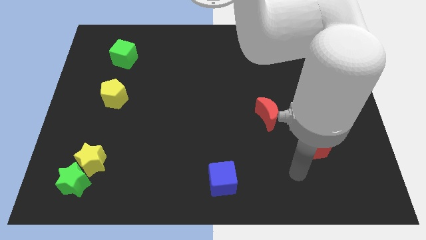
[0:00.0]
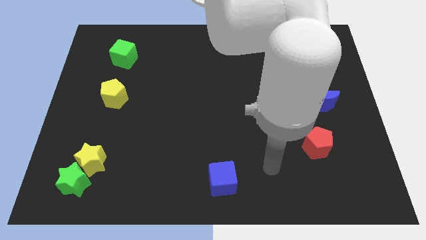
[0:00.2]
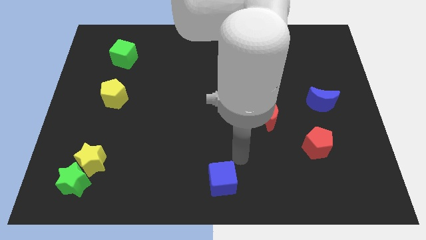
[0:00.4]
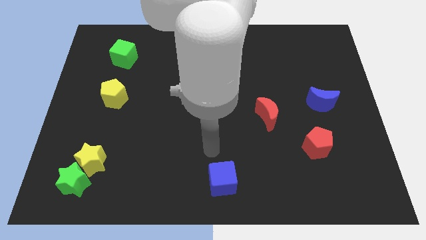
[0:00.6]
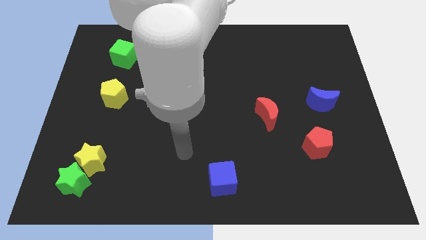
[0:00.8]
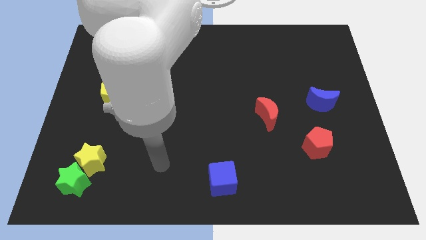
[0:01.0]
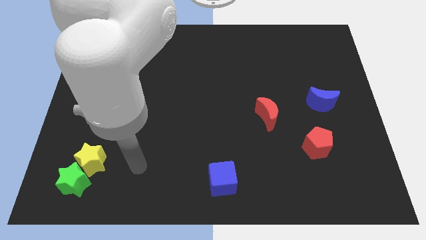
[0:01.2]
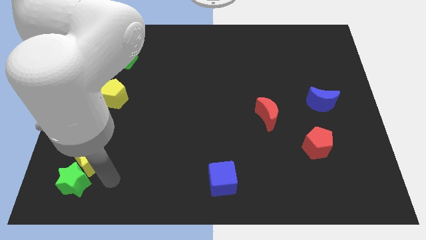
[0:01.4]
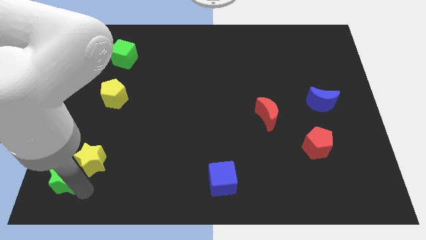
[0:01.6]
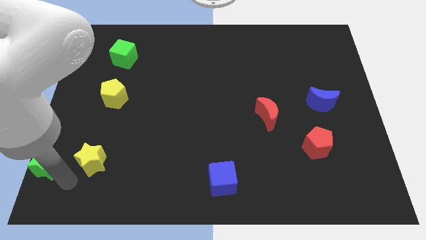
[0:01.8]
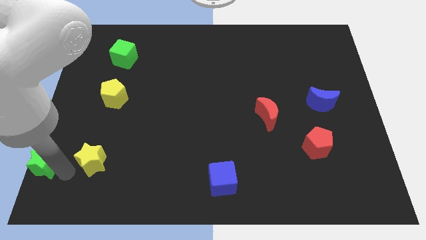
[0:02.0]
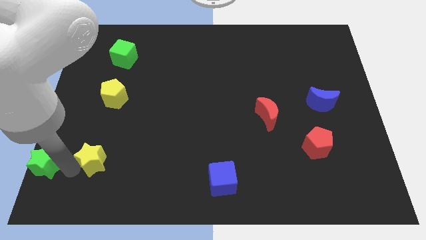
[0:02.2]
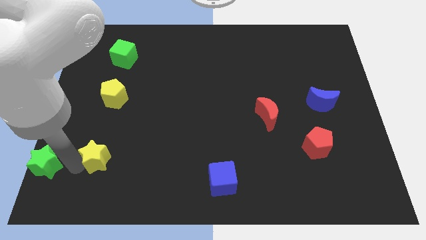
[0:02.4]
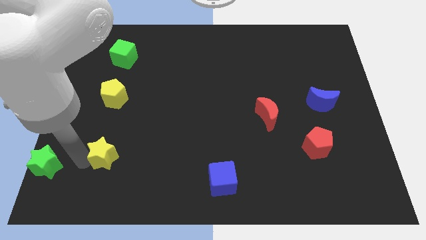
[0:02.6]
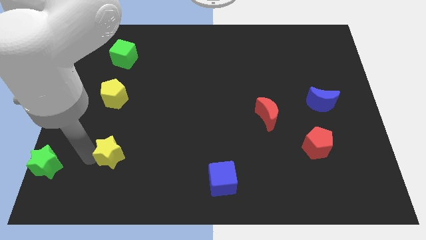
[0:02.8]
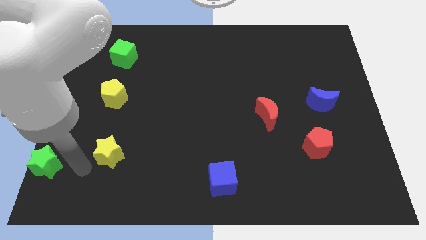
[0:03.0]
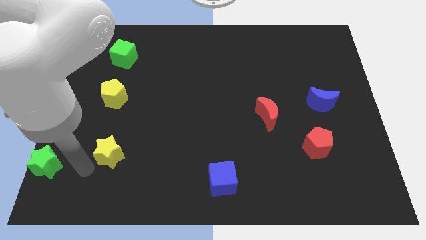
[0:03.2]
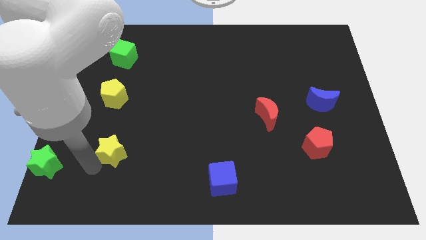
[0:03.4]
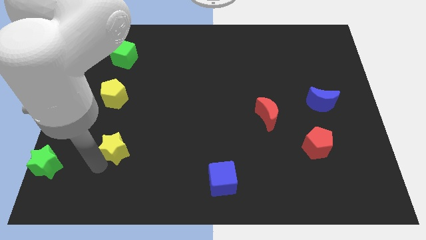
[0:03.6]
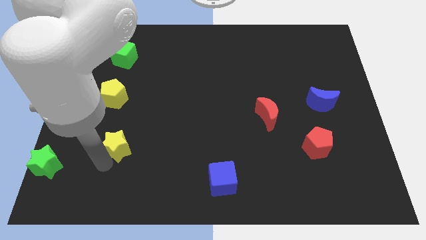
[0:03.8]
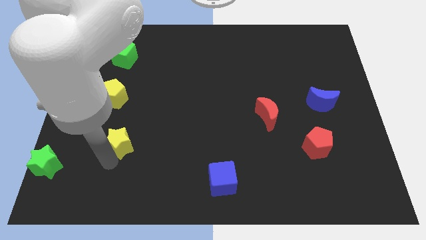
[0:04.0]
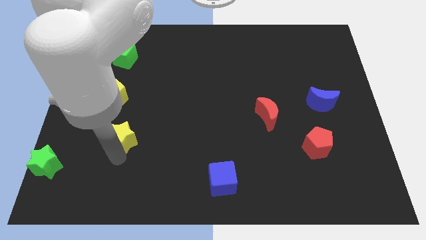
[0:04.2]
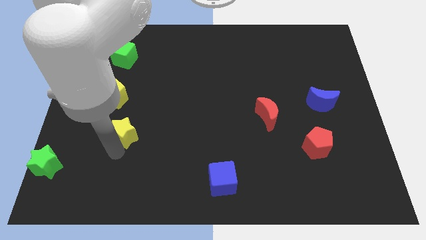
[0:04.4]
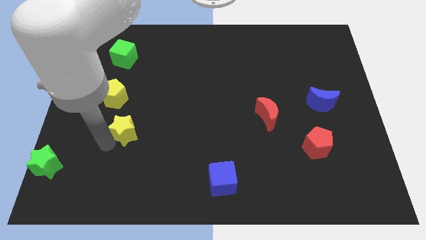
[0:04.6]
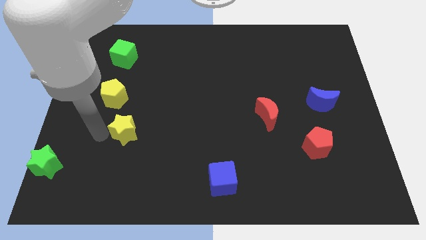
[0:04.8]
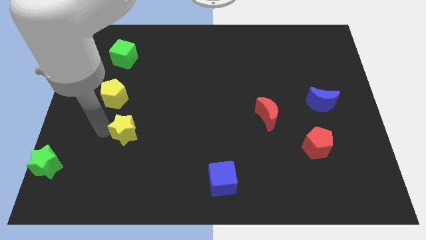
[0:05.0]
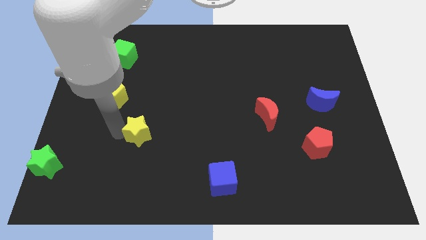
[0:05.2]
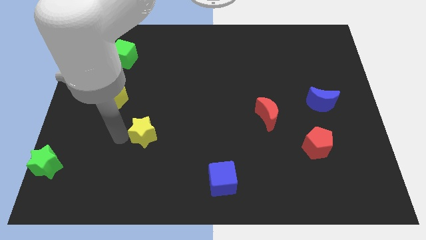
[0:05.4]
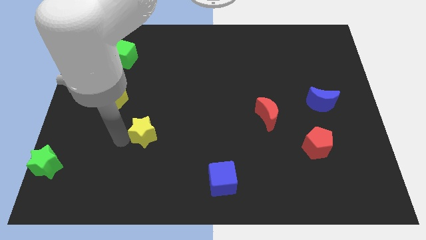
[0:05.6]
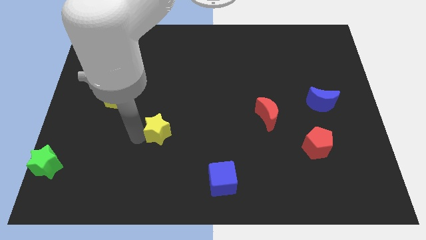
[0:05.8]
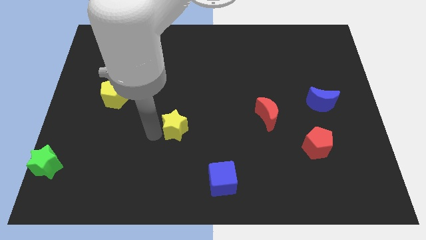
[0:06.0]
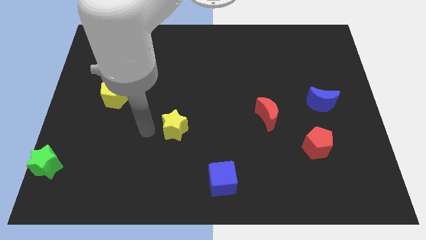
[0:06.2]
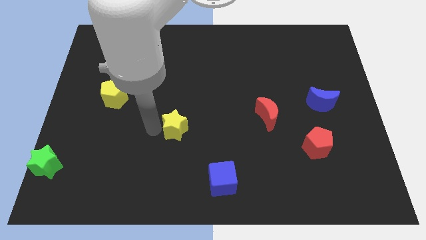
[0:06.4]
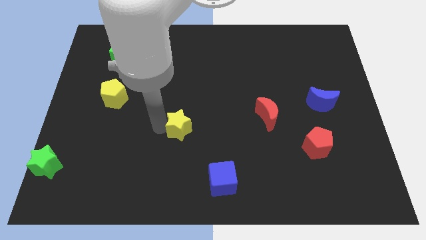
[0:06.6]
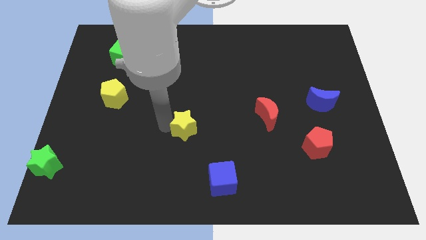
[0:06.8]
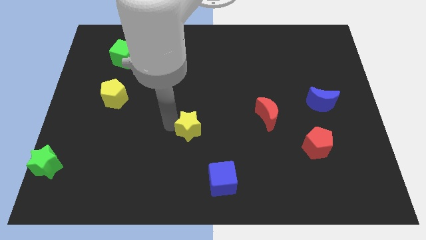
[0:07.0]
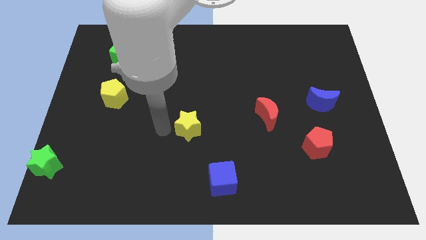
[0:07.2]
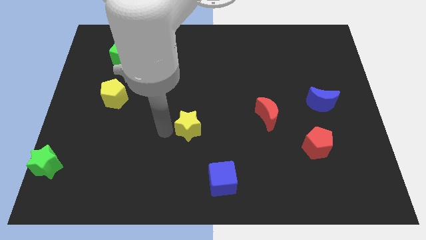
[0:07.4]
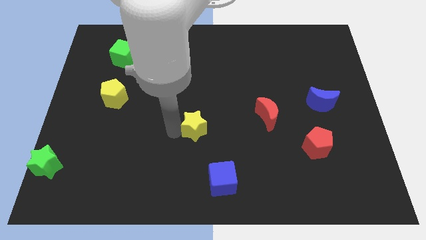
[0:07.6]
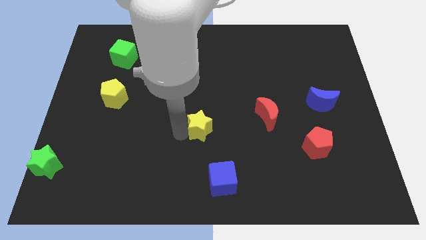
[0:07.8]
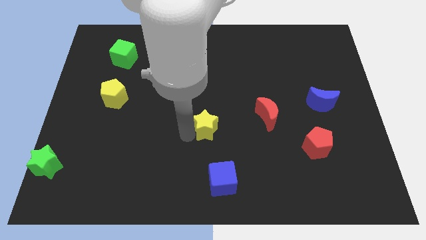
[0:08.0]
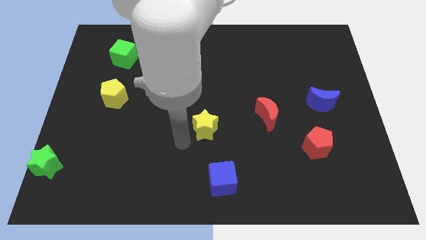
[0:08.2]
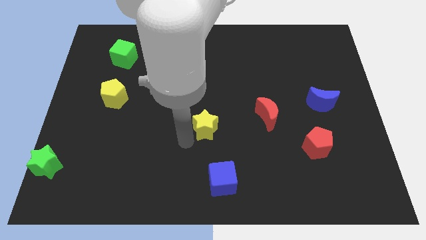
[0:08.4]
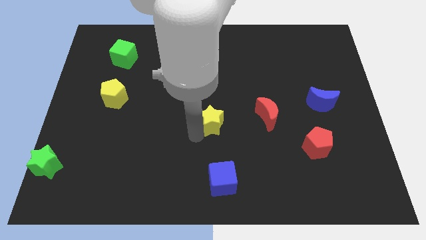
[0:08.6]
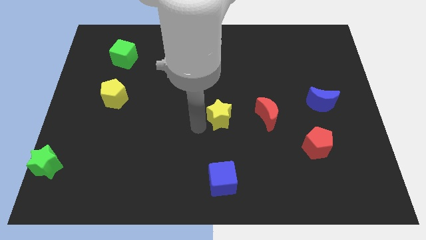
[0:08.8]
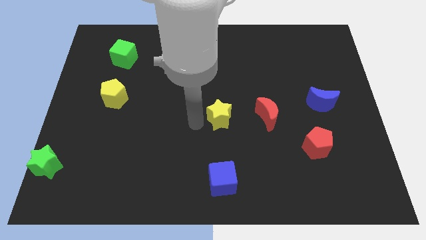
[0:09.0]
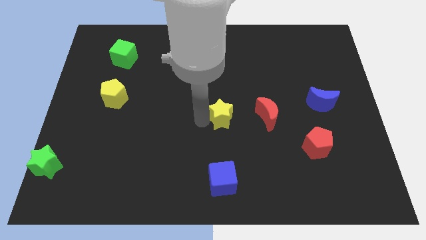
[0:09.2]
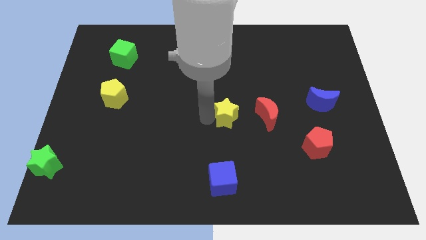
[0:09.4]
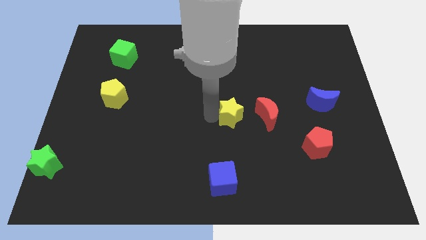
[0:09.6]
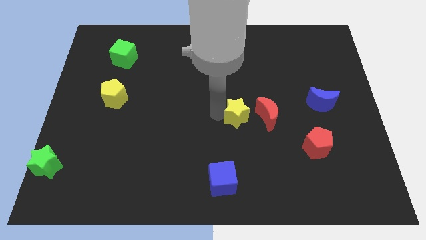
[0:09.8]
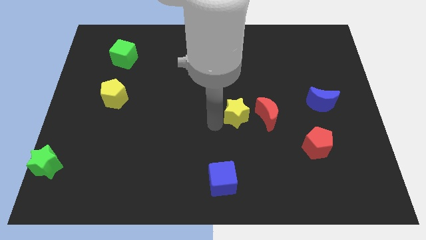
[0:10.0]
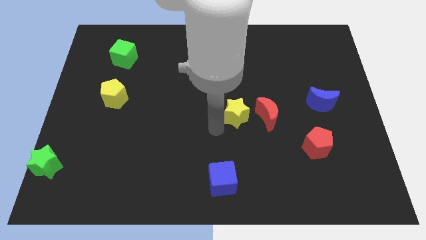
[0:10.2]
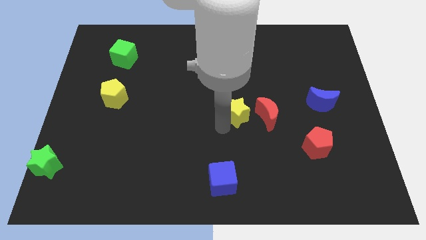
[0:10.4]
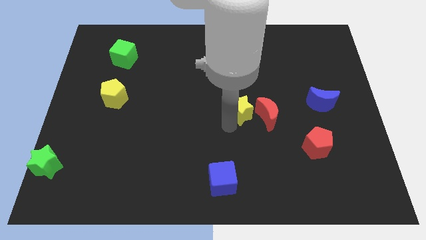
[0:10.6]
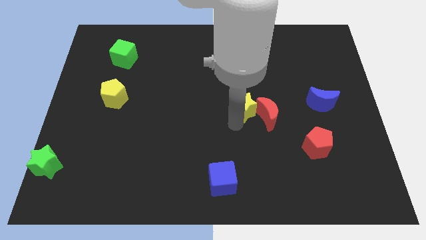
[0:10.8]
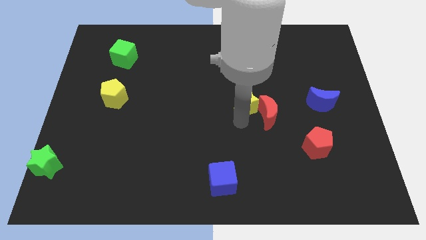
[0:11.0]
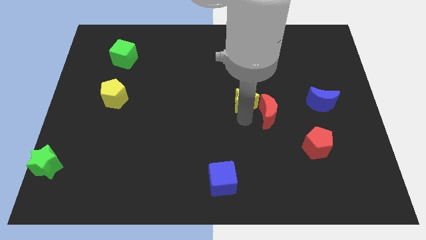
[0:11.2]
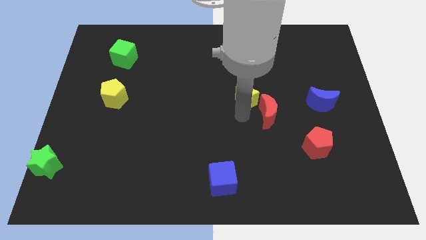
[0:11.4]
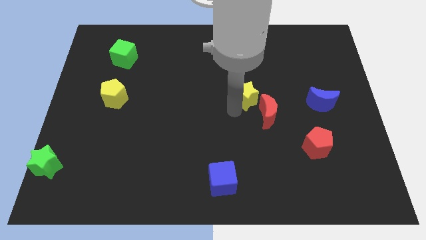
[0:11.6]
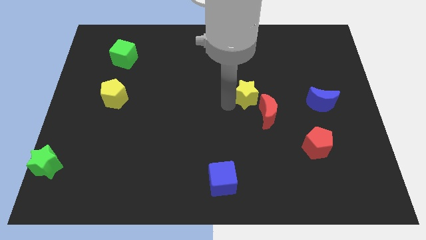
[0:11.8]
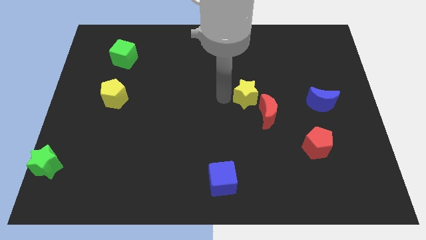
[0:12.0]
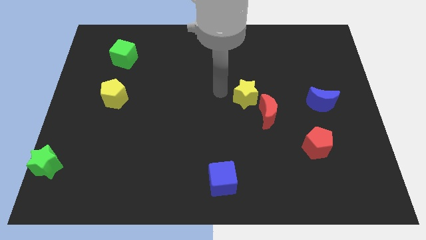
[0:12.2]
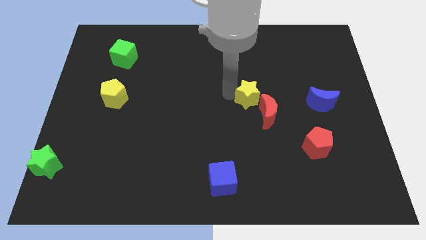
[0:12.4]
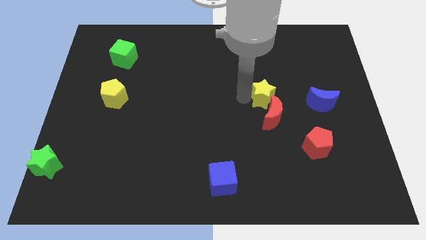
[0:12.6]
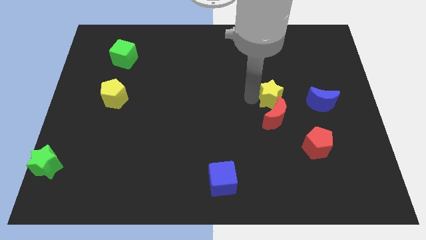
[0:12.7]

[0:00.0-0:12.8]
put the yellow star to the top right side of the red moon
